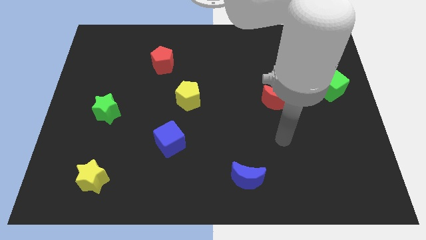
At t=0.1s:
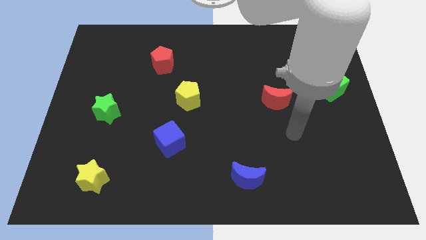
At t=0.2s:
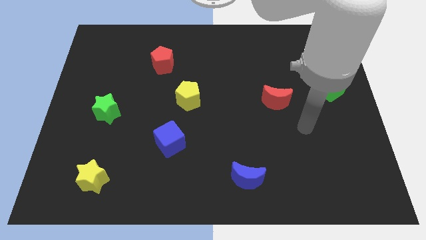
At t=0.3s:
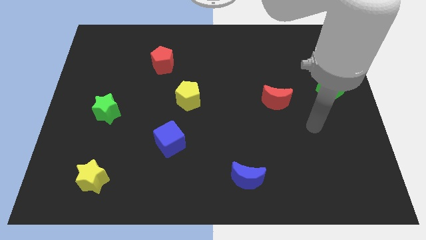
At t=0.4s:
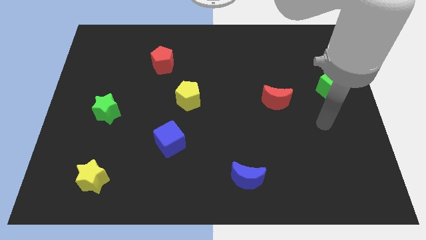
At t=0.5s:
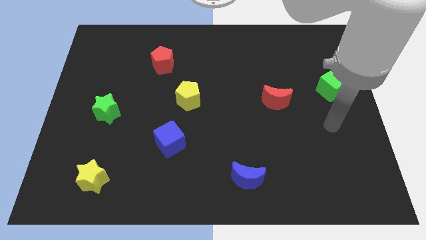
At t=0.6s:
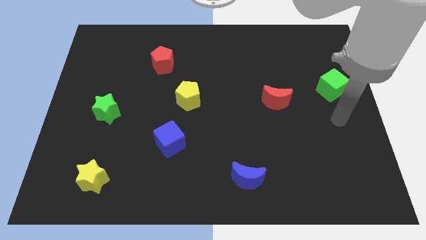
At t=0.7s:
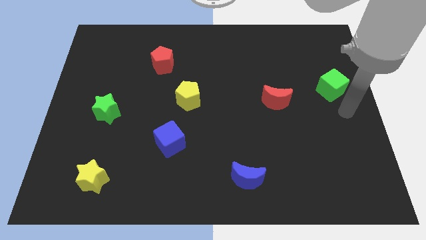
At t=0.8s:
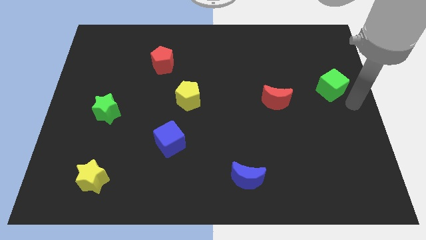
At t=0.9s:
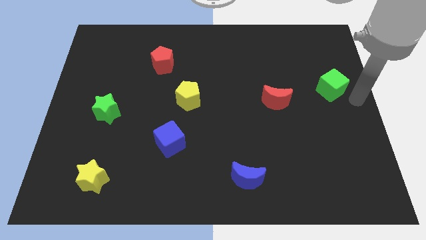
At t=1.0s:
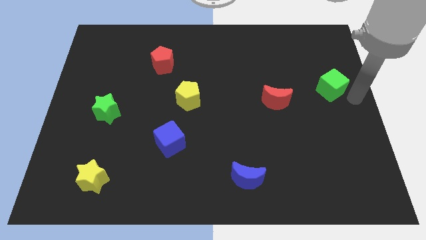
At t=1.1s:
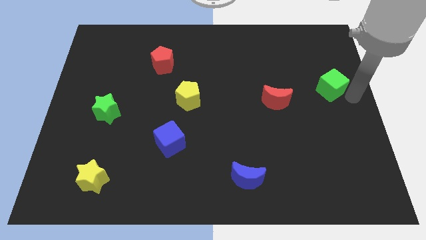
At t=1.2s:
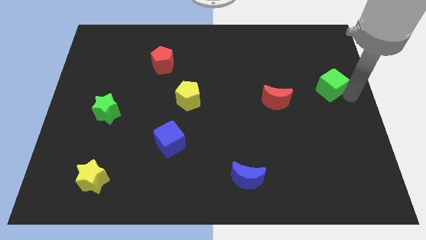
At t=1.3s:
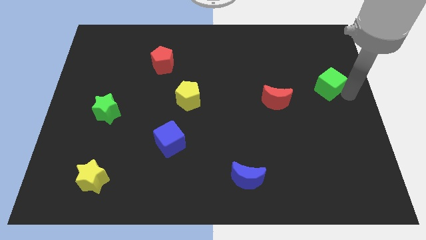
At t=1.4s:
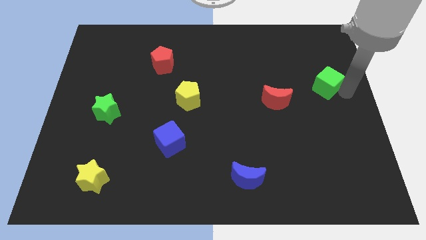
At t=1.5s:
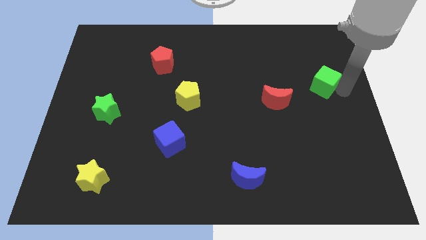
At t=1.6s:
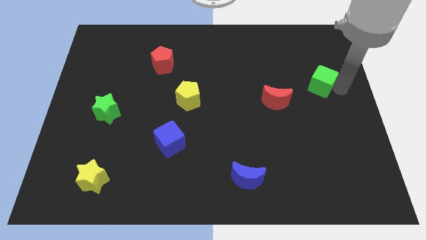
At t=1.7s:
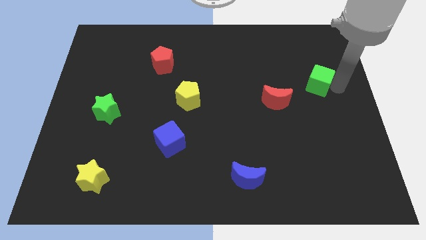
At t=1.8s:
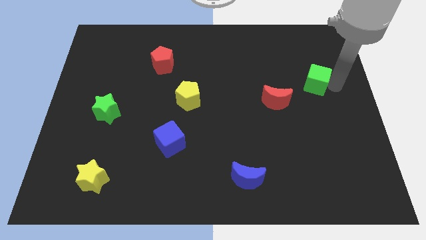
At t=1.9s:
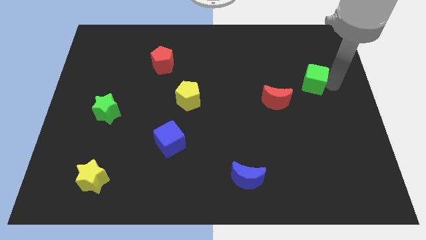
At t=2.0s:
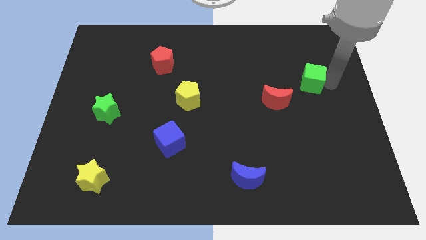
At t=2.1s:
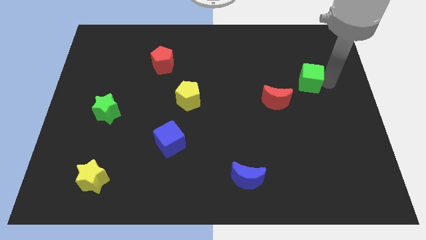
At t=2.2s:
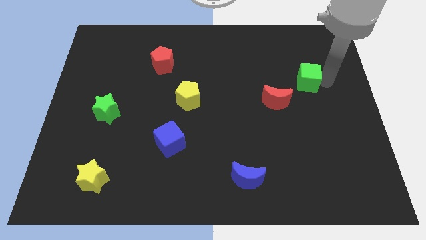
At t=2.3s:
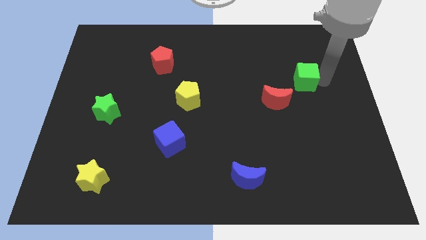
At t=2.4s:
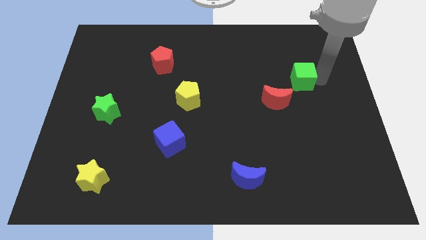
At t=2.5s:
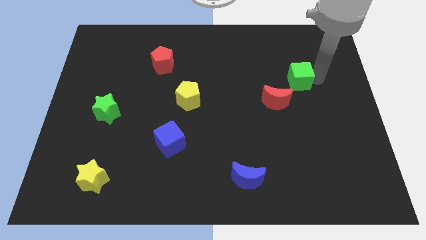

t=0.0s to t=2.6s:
slightly push the green cube to the left

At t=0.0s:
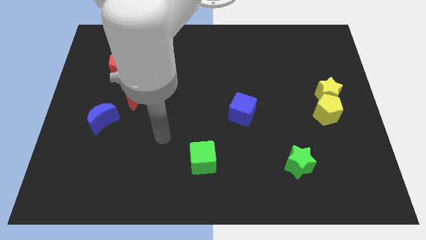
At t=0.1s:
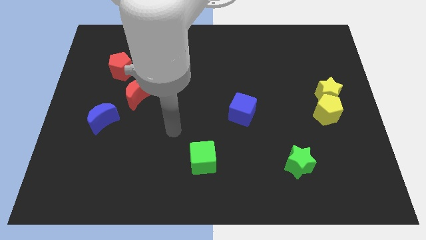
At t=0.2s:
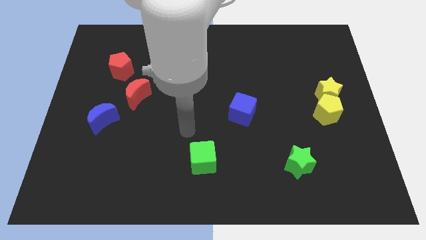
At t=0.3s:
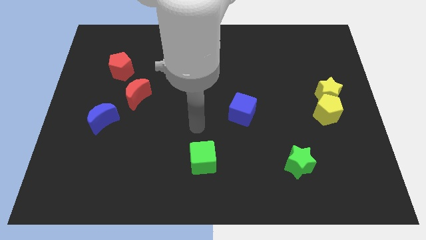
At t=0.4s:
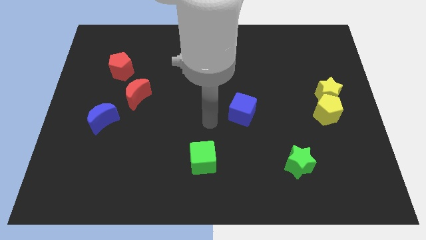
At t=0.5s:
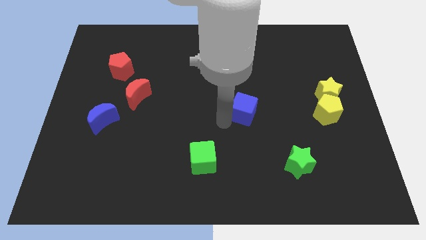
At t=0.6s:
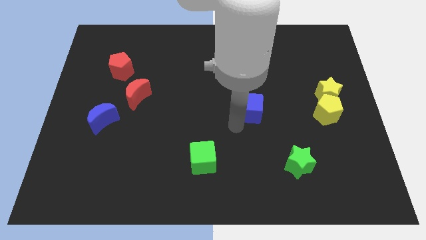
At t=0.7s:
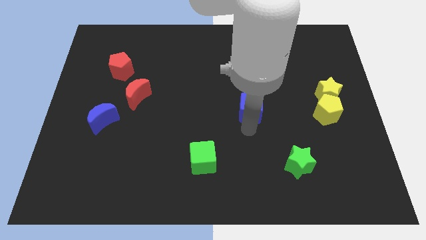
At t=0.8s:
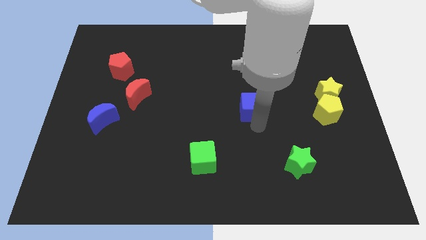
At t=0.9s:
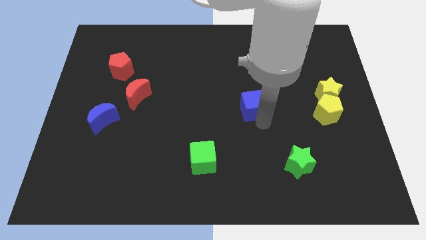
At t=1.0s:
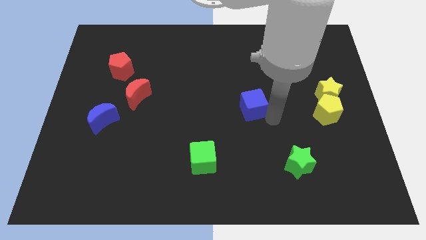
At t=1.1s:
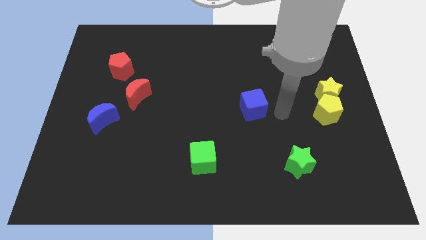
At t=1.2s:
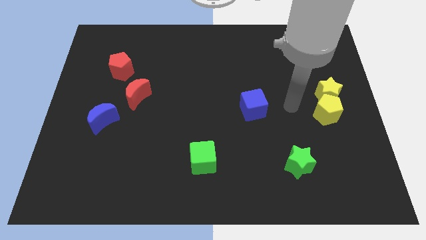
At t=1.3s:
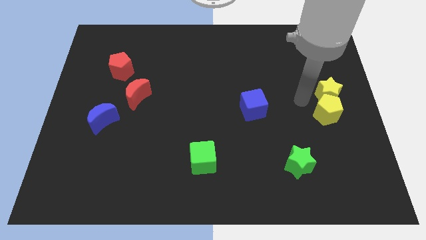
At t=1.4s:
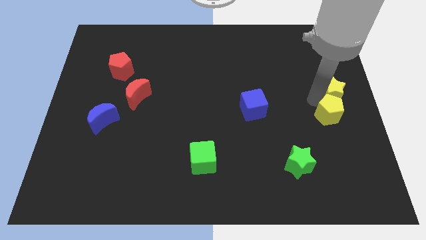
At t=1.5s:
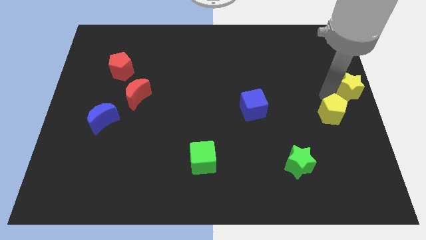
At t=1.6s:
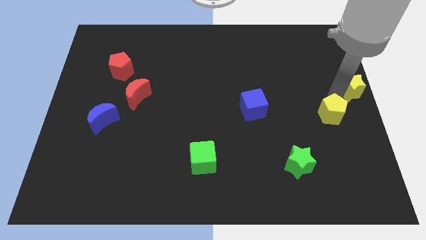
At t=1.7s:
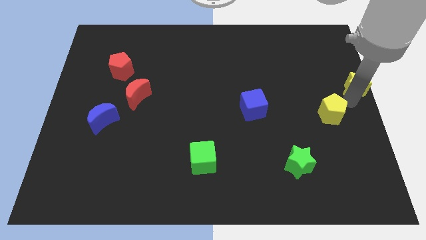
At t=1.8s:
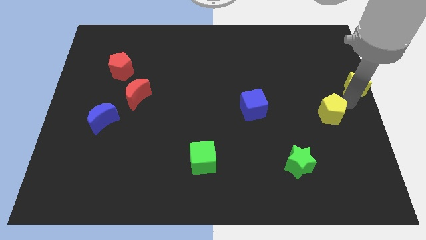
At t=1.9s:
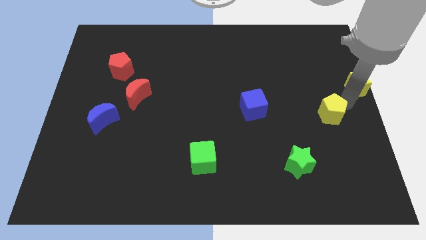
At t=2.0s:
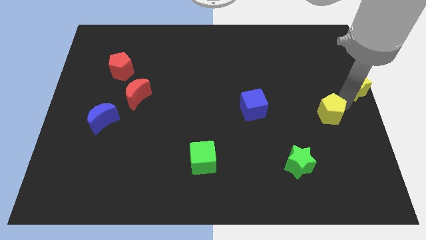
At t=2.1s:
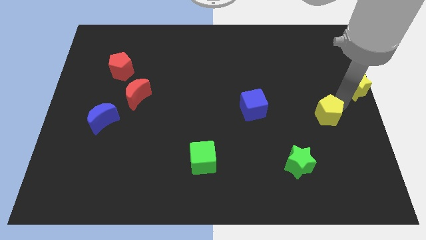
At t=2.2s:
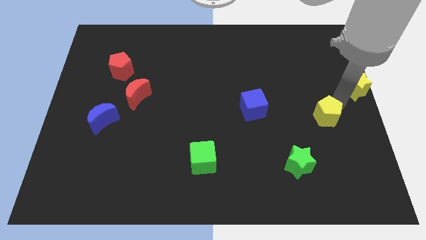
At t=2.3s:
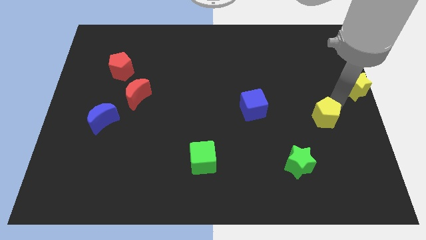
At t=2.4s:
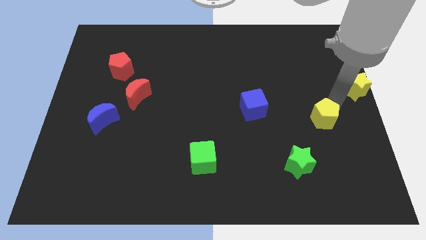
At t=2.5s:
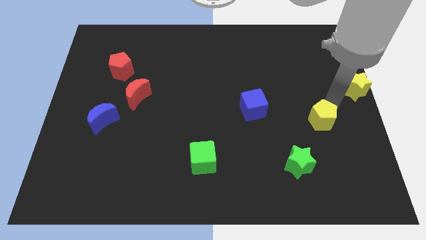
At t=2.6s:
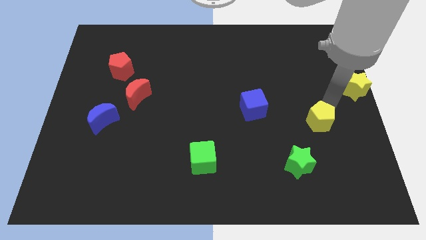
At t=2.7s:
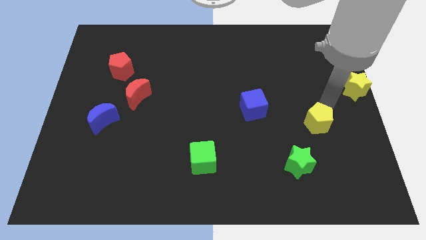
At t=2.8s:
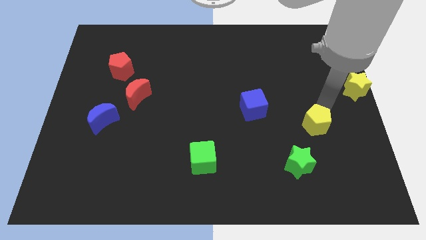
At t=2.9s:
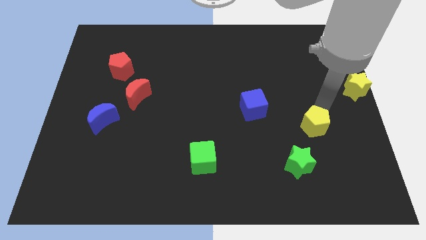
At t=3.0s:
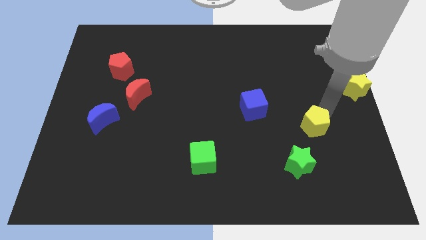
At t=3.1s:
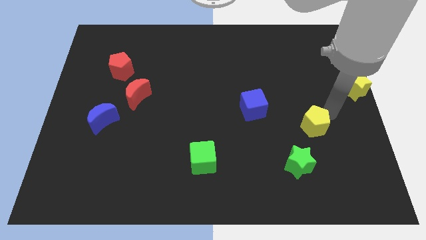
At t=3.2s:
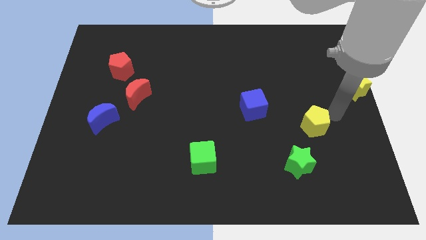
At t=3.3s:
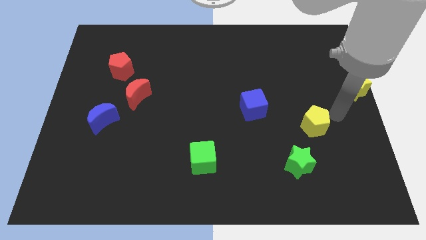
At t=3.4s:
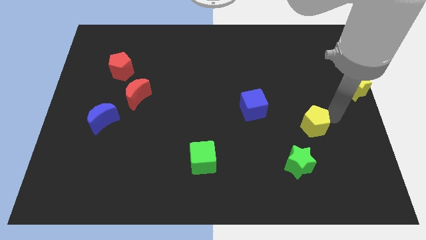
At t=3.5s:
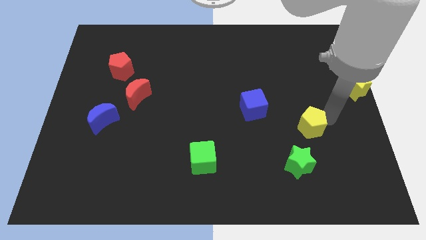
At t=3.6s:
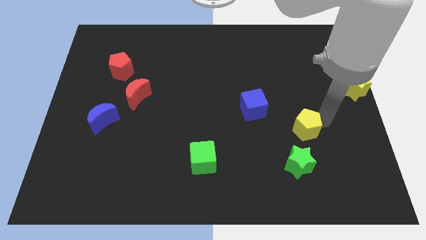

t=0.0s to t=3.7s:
push the yellow pentagon diagonally downwards and to the left a bit

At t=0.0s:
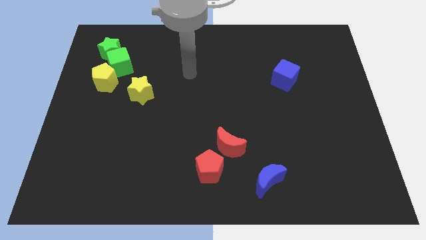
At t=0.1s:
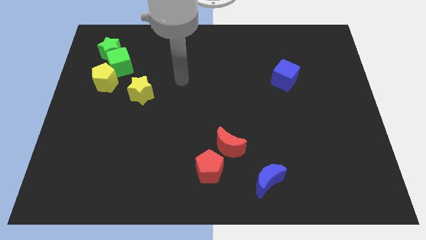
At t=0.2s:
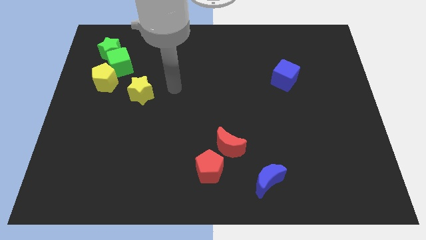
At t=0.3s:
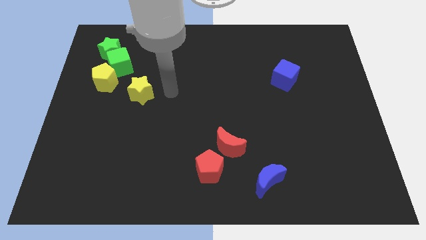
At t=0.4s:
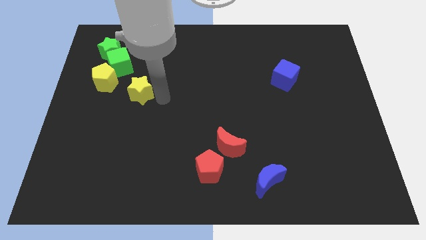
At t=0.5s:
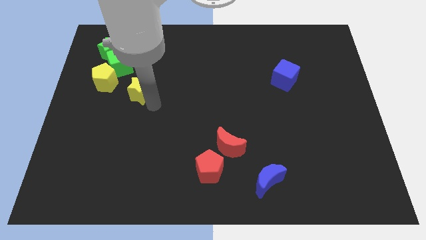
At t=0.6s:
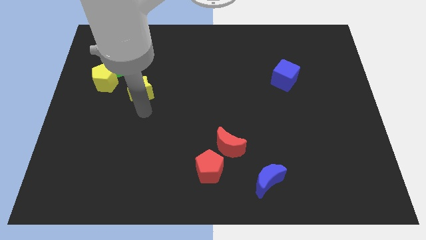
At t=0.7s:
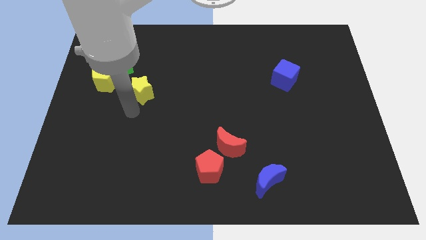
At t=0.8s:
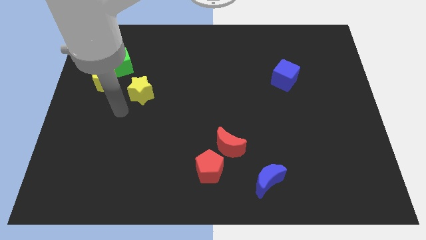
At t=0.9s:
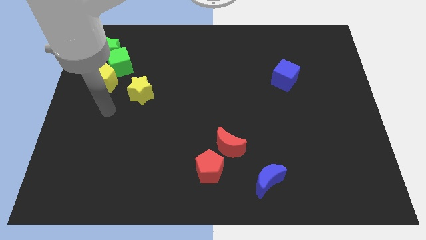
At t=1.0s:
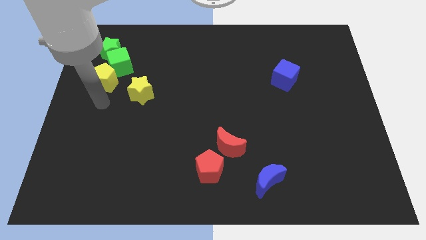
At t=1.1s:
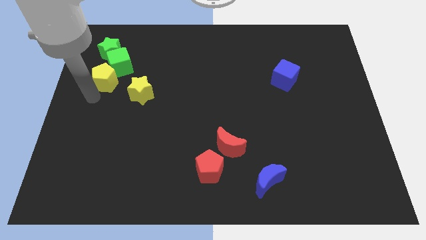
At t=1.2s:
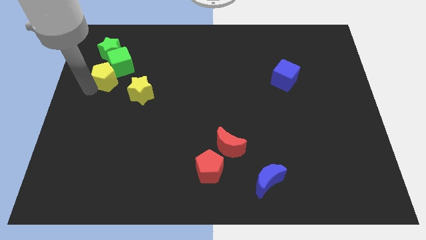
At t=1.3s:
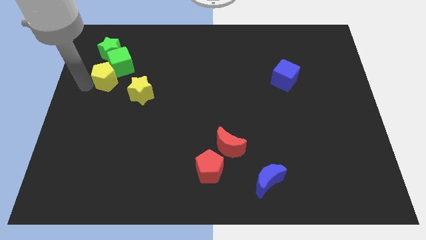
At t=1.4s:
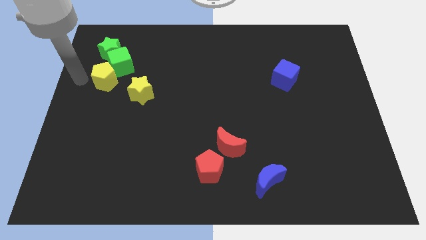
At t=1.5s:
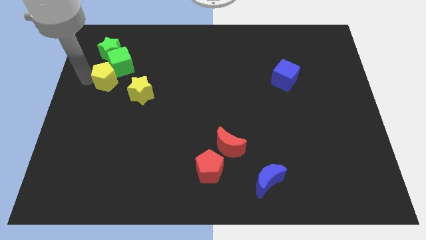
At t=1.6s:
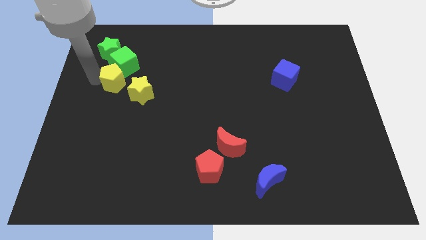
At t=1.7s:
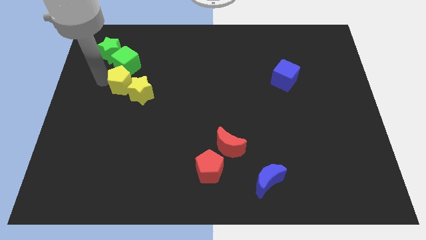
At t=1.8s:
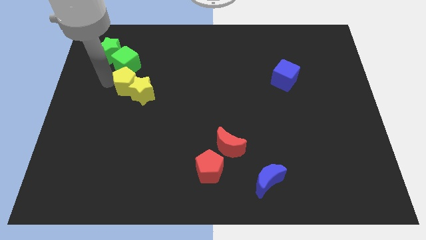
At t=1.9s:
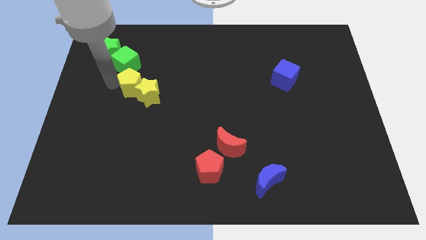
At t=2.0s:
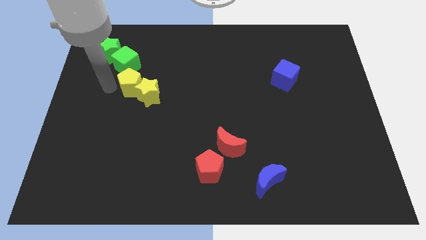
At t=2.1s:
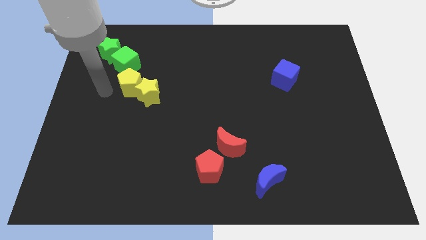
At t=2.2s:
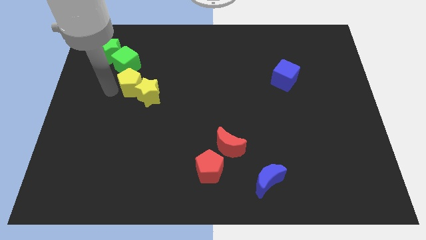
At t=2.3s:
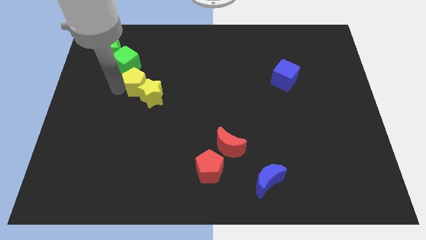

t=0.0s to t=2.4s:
slide the yellow pentagon a bit to the right
